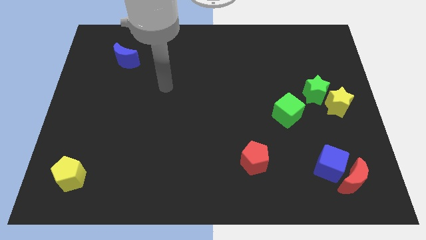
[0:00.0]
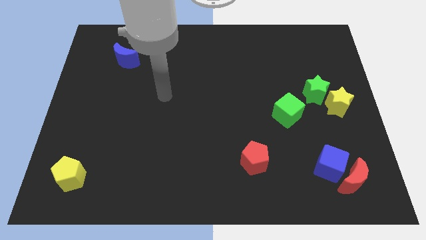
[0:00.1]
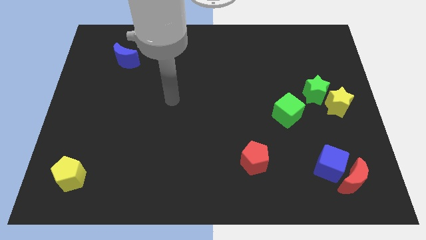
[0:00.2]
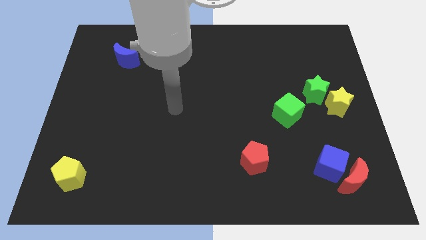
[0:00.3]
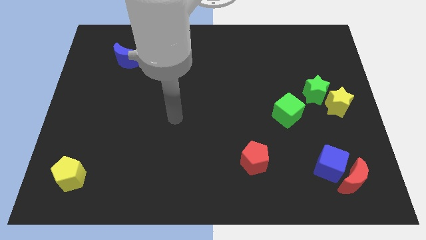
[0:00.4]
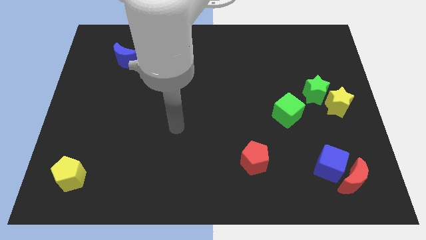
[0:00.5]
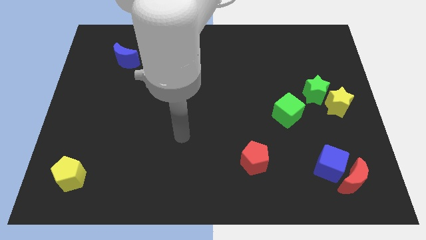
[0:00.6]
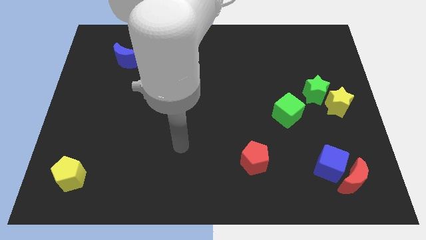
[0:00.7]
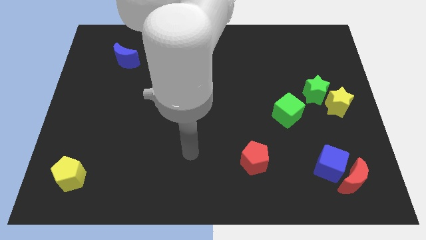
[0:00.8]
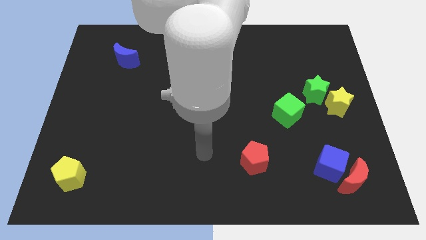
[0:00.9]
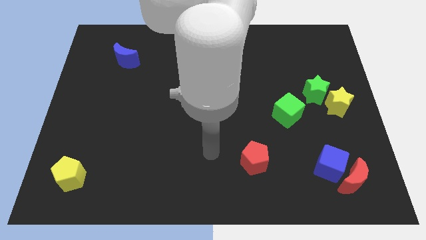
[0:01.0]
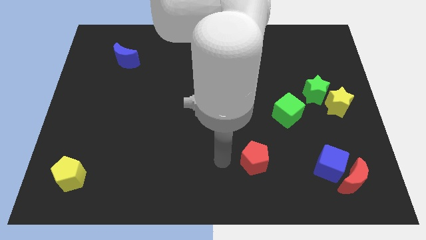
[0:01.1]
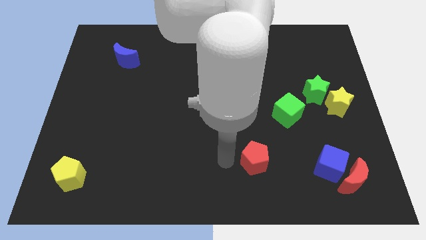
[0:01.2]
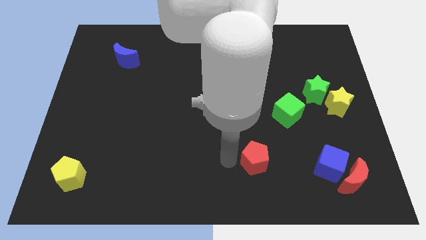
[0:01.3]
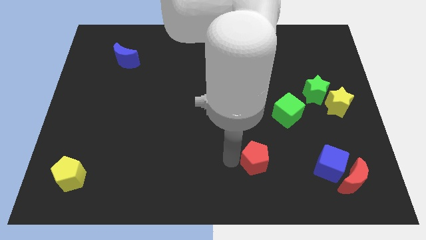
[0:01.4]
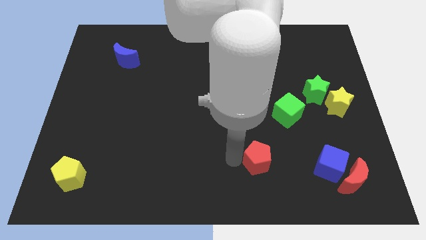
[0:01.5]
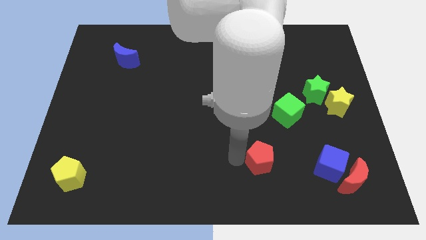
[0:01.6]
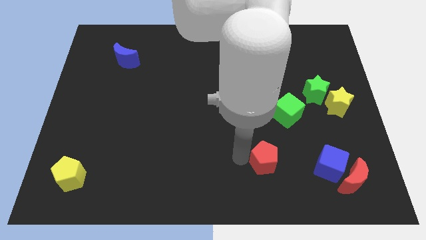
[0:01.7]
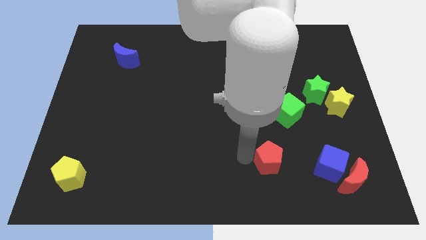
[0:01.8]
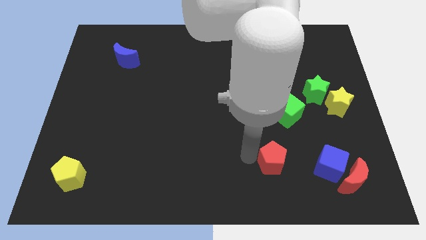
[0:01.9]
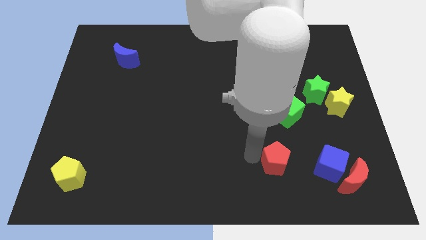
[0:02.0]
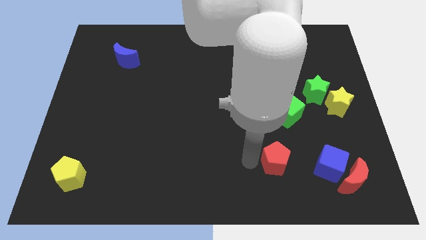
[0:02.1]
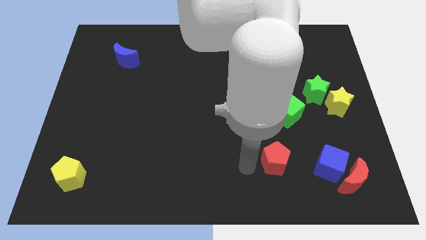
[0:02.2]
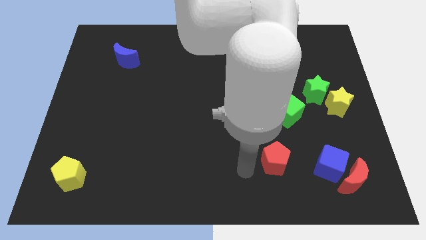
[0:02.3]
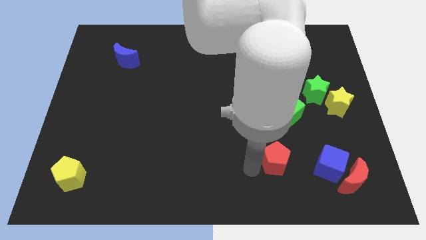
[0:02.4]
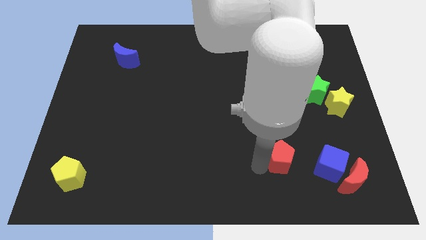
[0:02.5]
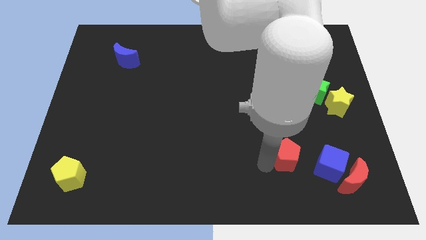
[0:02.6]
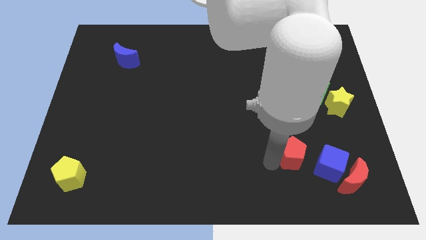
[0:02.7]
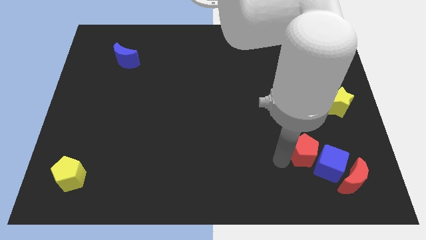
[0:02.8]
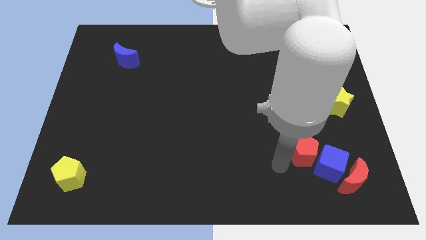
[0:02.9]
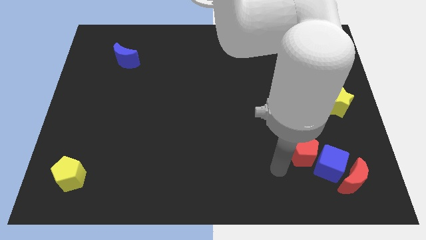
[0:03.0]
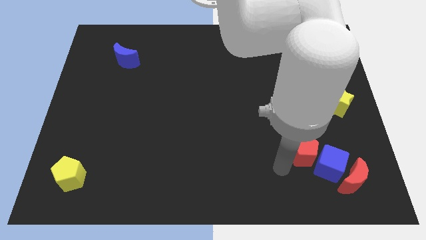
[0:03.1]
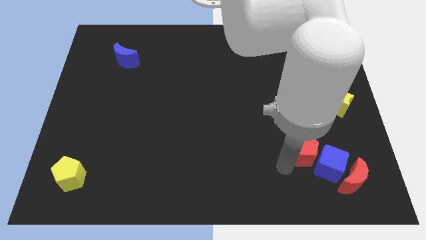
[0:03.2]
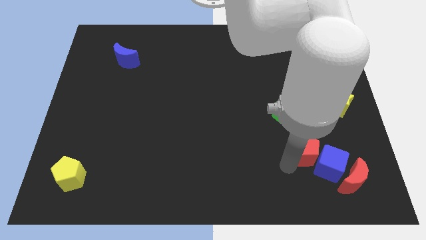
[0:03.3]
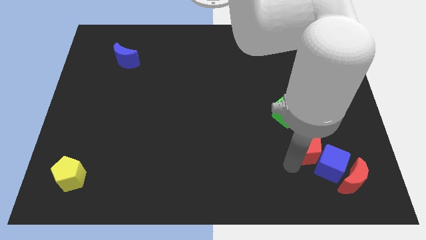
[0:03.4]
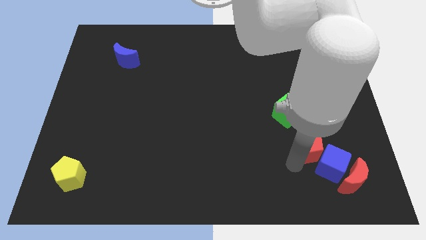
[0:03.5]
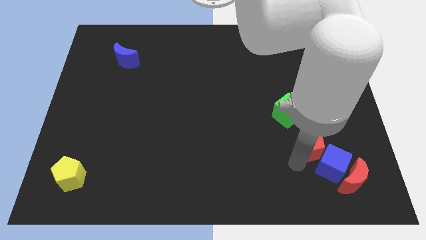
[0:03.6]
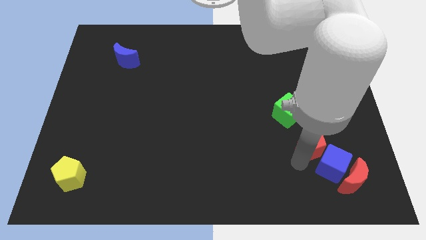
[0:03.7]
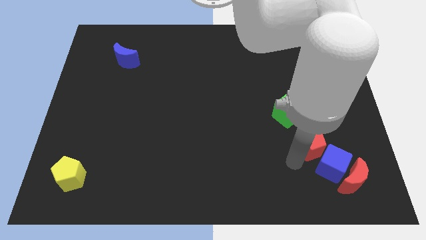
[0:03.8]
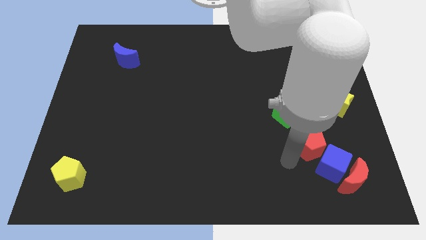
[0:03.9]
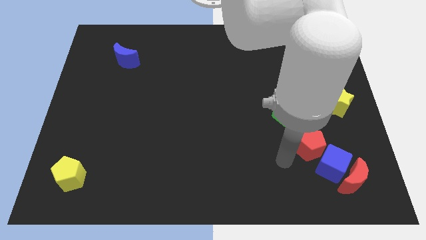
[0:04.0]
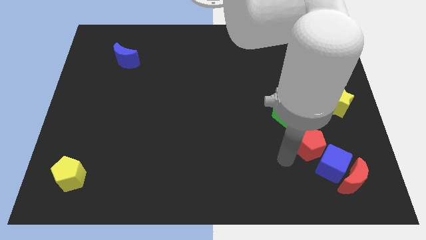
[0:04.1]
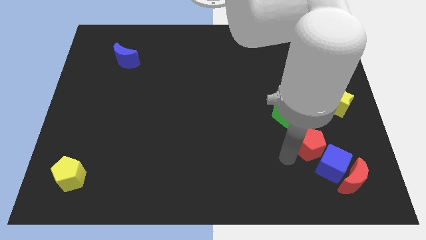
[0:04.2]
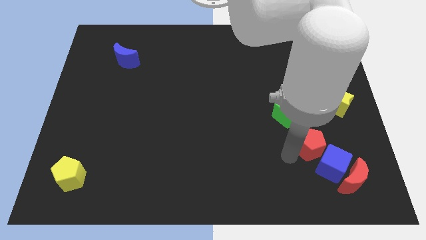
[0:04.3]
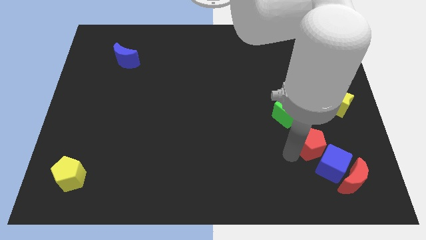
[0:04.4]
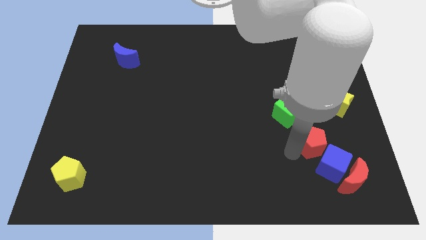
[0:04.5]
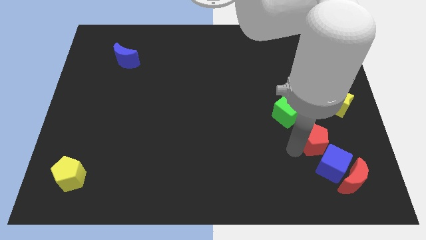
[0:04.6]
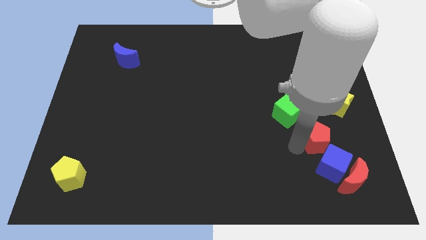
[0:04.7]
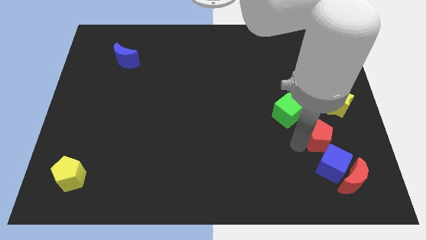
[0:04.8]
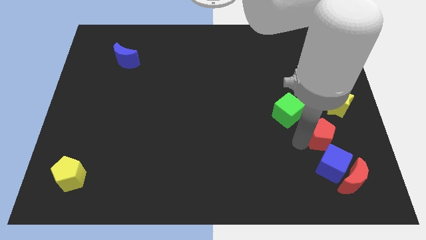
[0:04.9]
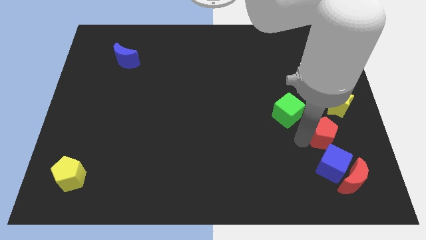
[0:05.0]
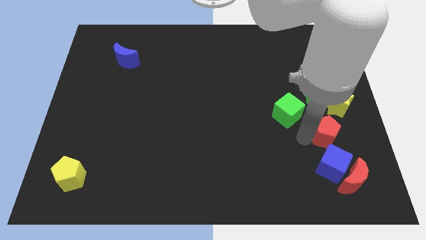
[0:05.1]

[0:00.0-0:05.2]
move the red pentagon below the yellow star

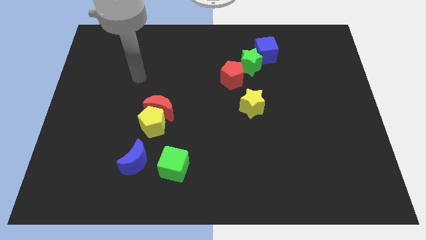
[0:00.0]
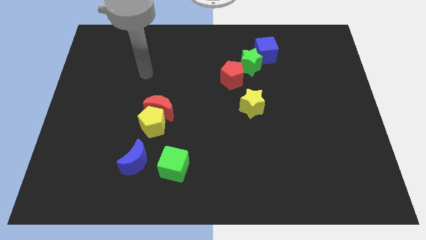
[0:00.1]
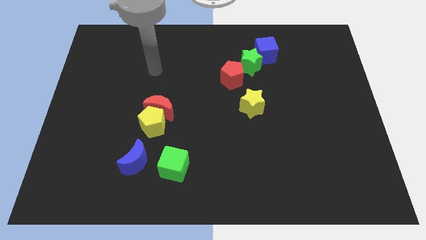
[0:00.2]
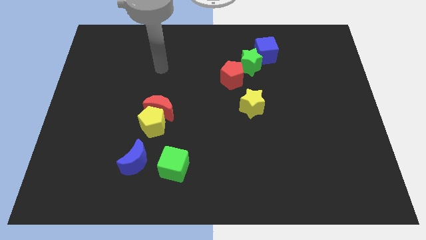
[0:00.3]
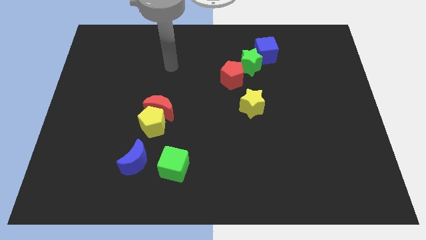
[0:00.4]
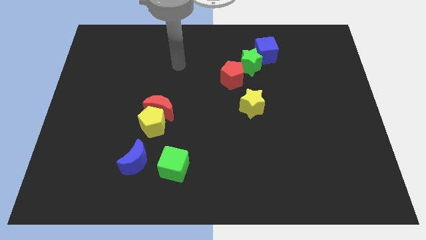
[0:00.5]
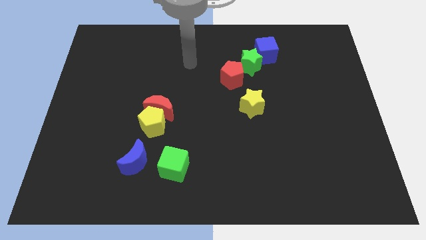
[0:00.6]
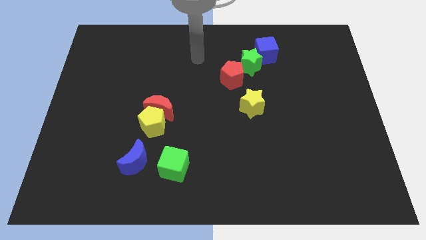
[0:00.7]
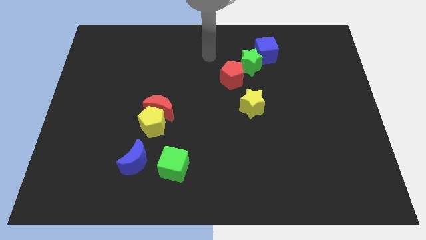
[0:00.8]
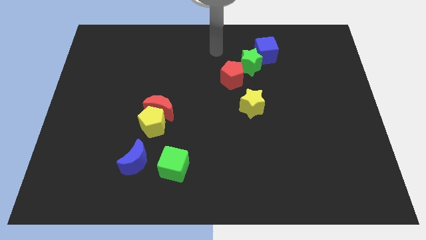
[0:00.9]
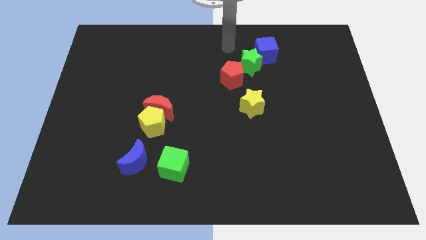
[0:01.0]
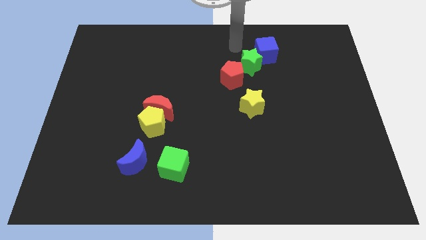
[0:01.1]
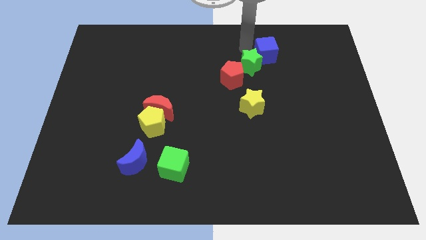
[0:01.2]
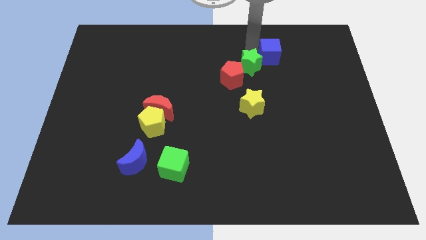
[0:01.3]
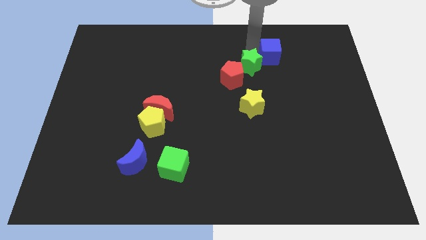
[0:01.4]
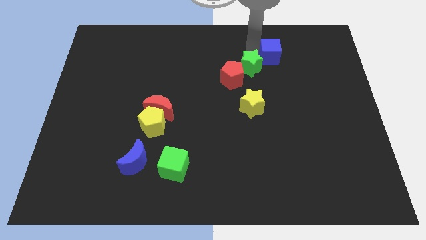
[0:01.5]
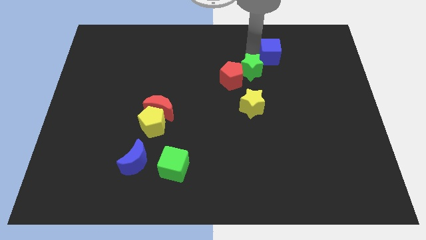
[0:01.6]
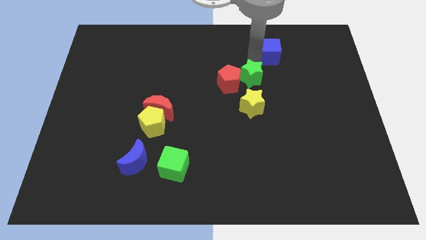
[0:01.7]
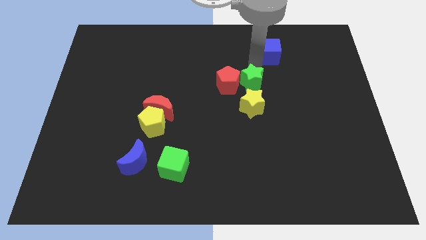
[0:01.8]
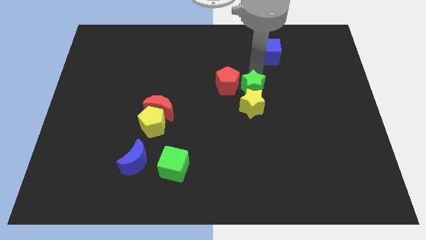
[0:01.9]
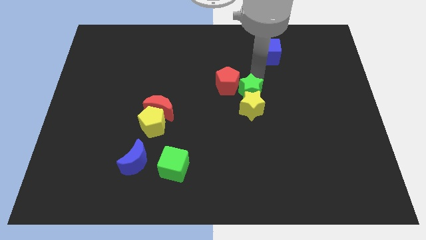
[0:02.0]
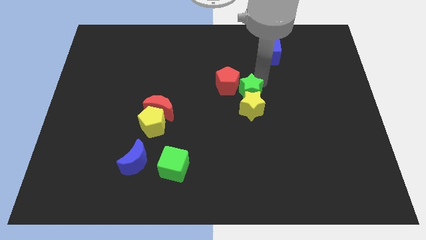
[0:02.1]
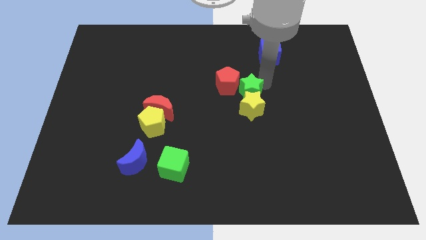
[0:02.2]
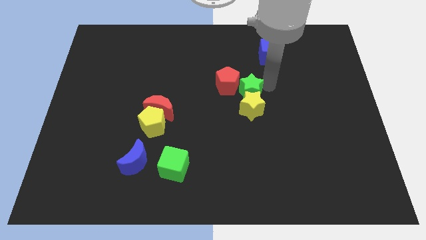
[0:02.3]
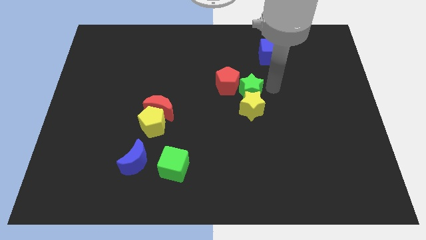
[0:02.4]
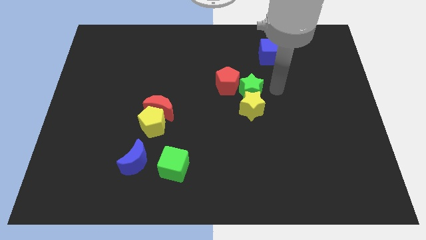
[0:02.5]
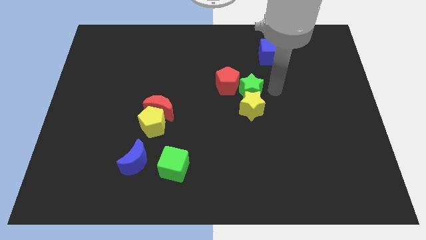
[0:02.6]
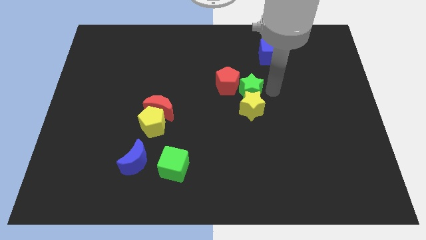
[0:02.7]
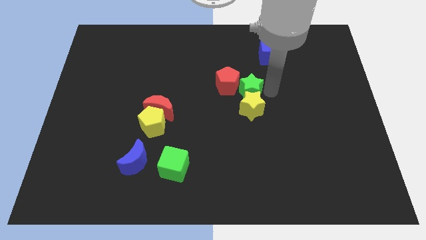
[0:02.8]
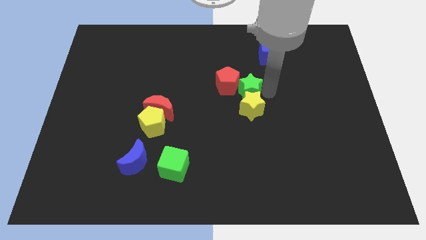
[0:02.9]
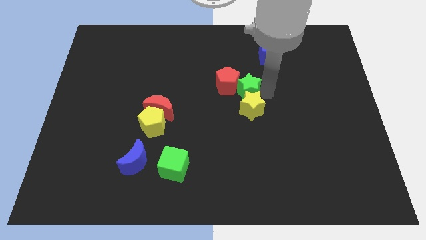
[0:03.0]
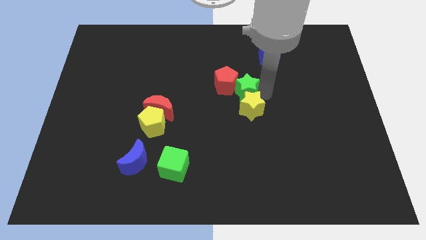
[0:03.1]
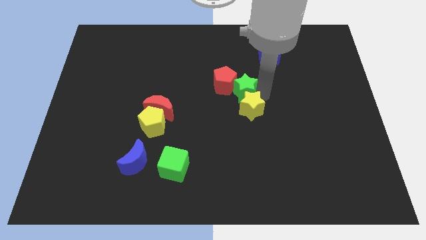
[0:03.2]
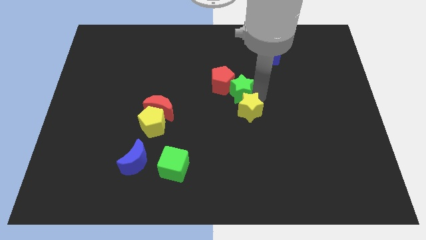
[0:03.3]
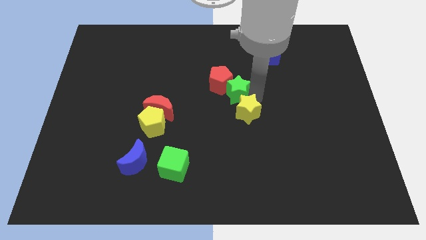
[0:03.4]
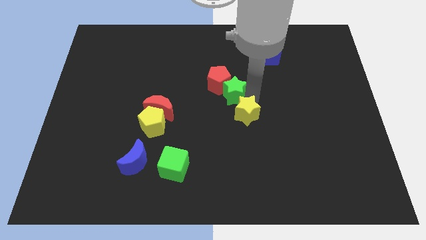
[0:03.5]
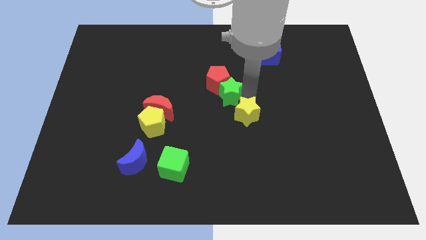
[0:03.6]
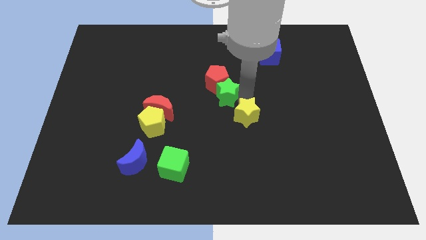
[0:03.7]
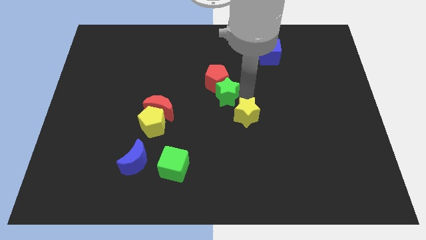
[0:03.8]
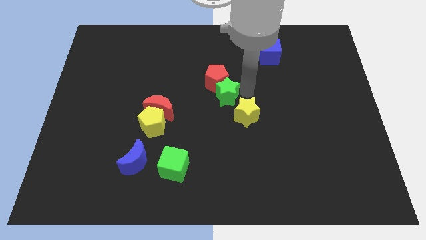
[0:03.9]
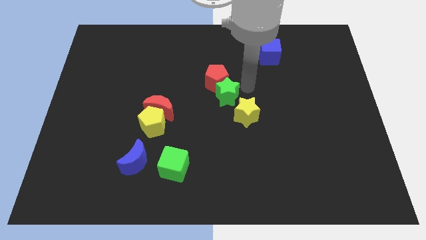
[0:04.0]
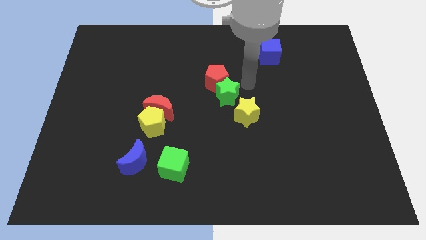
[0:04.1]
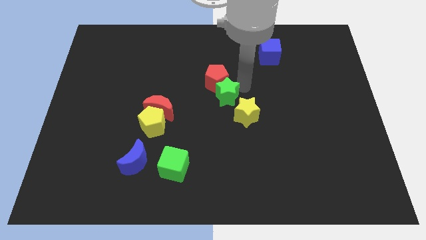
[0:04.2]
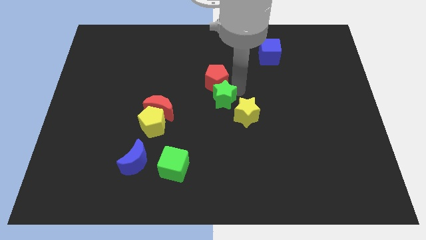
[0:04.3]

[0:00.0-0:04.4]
push the green star to the right of the red moon
